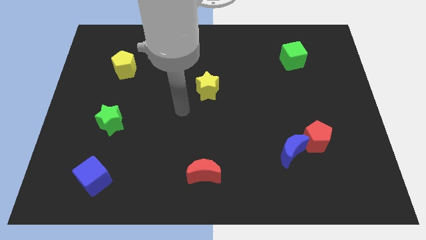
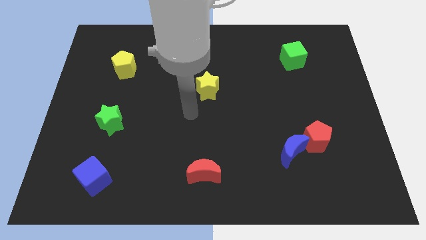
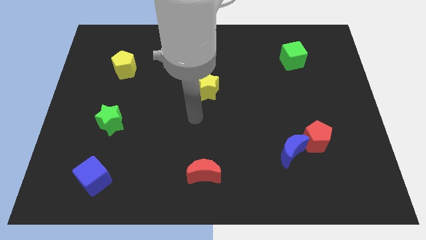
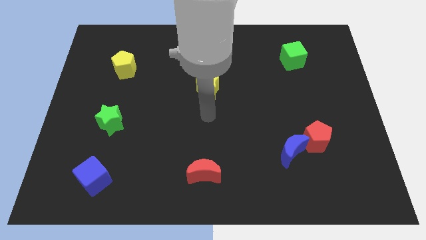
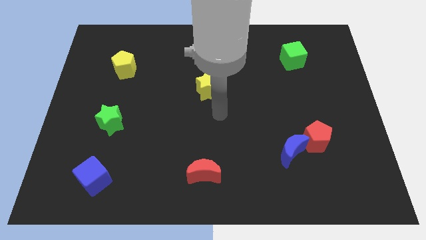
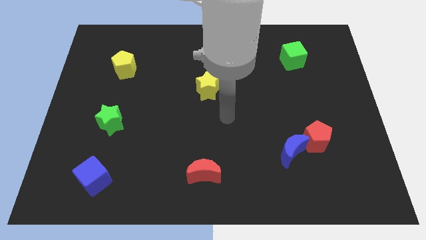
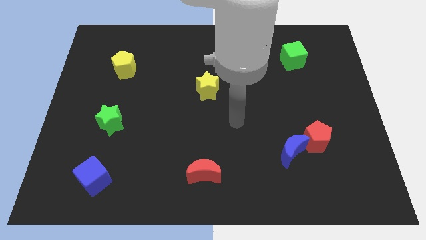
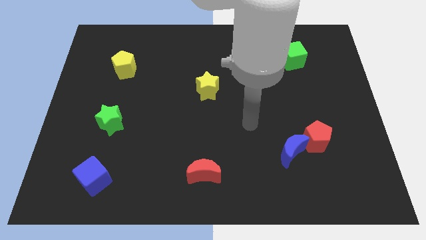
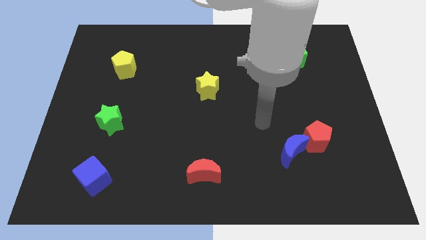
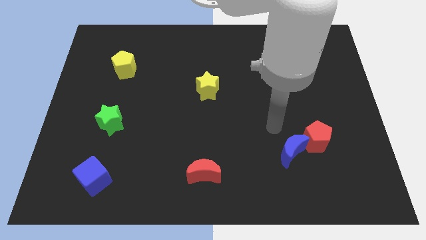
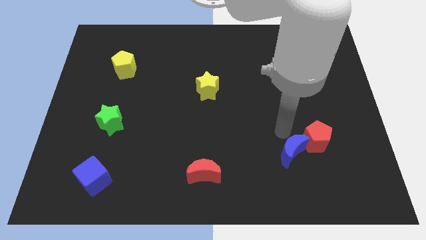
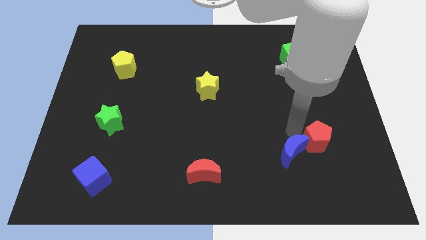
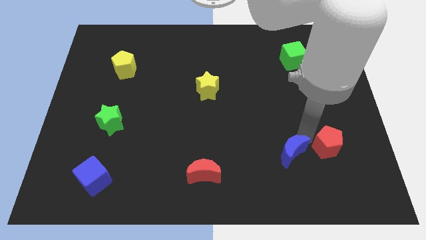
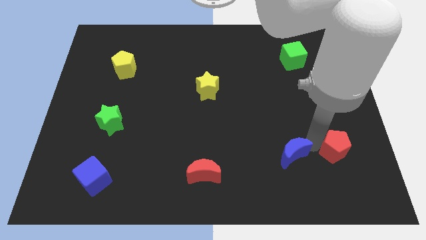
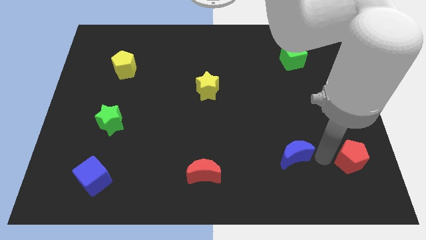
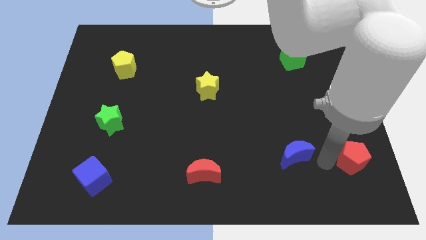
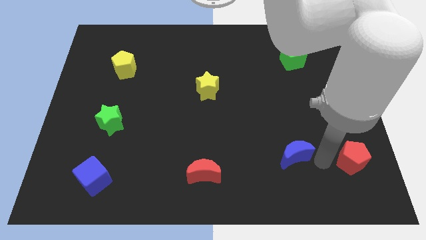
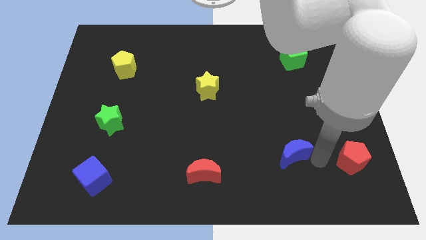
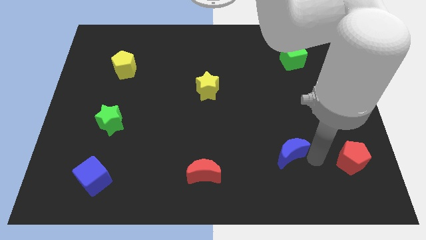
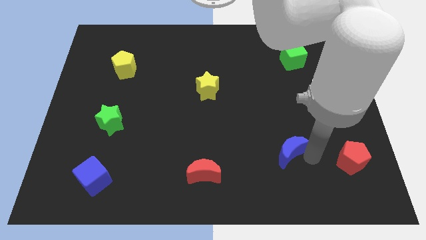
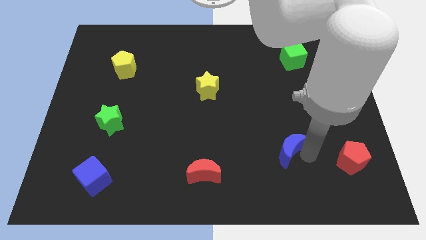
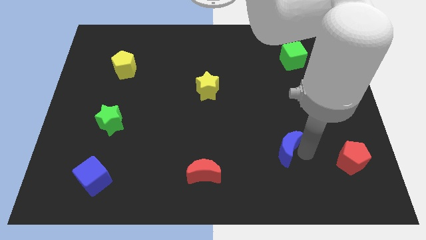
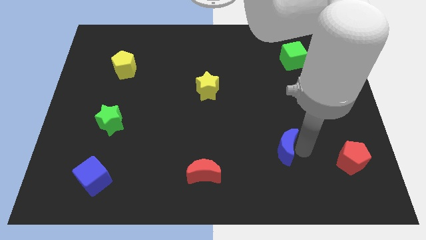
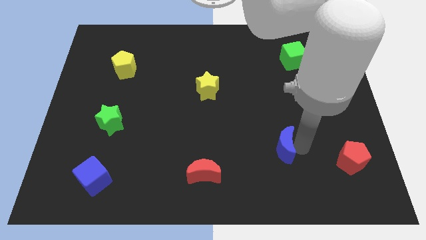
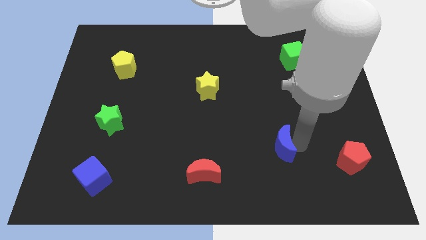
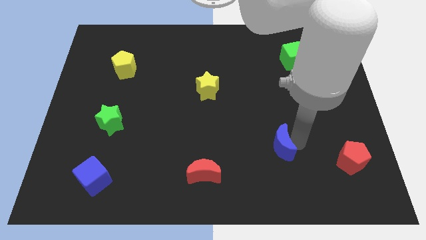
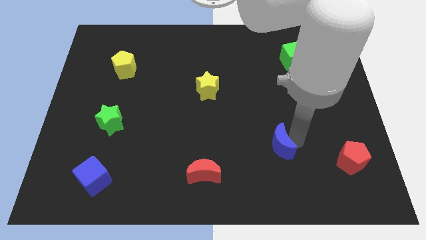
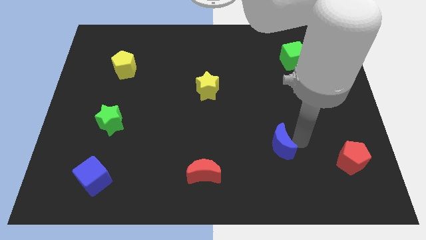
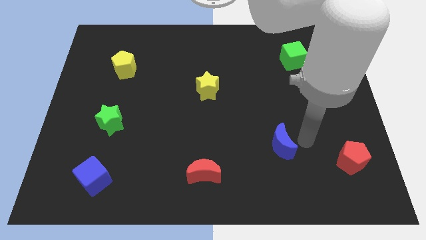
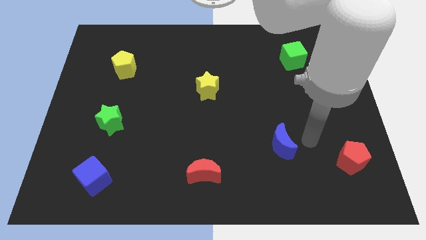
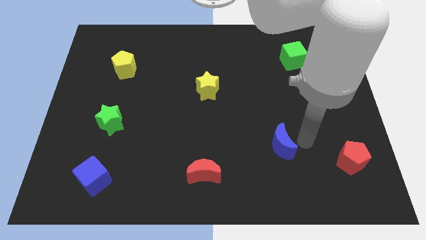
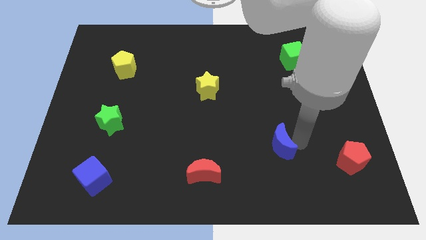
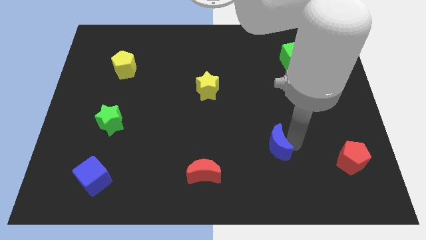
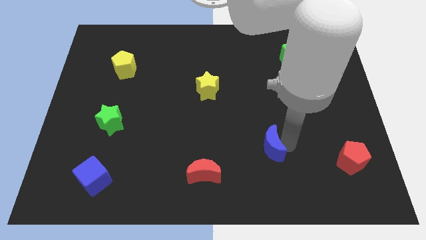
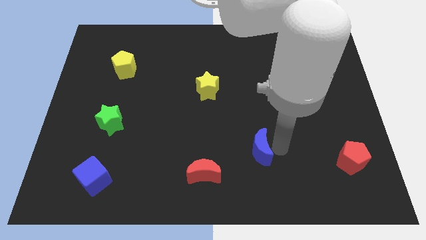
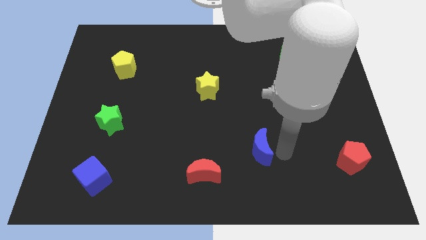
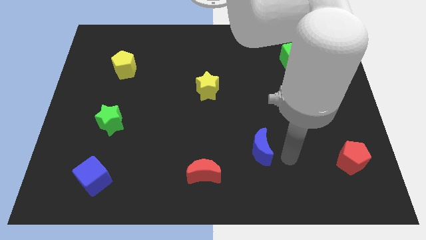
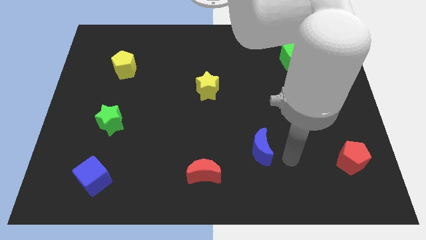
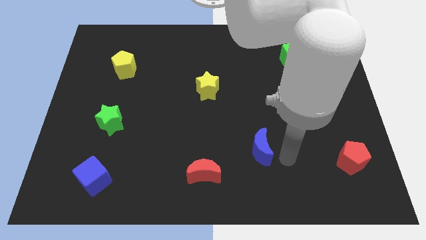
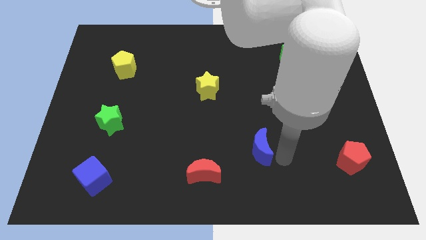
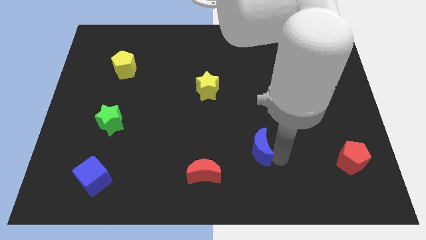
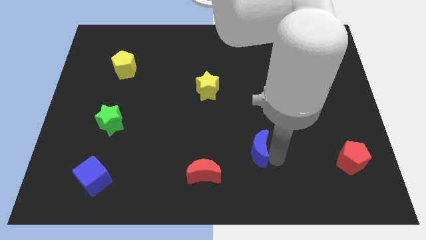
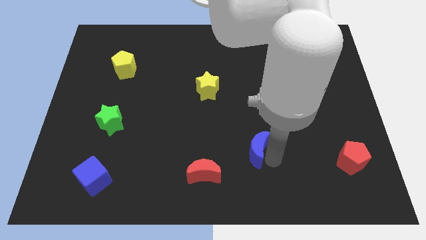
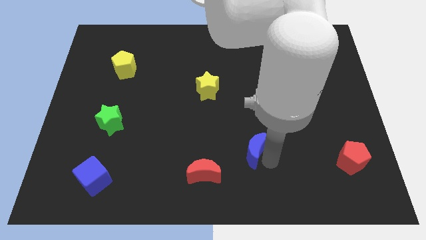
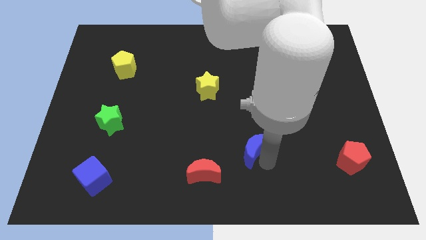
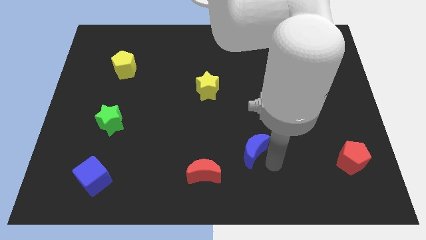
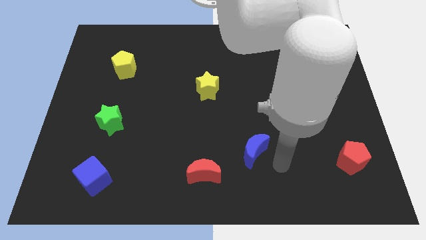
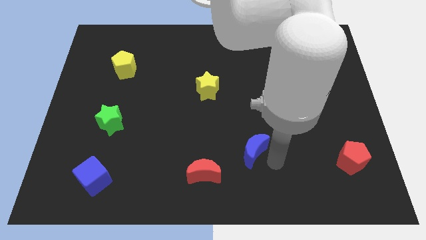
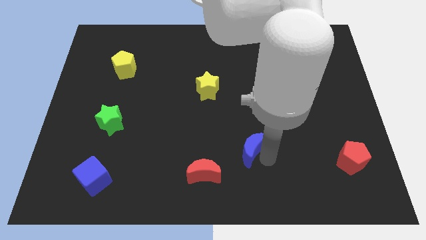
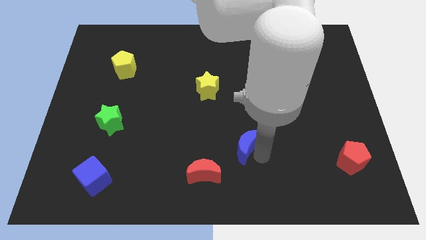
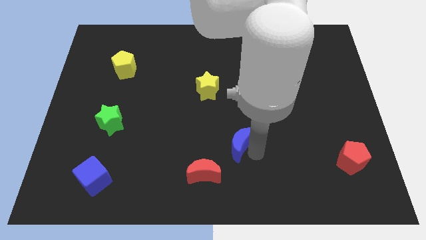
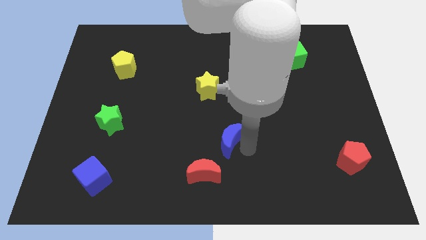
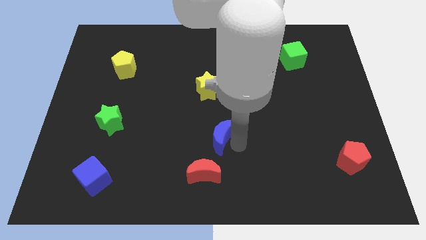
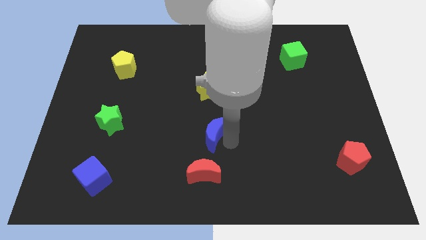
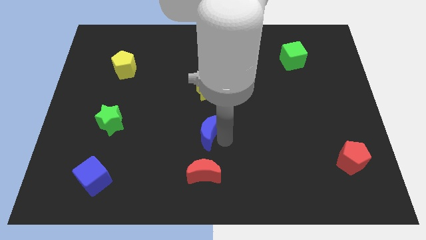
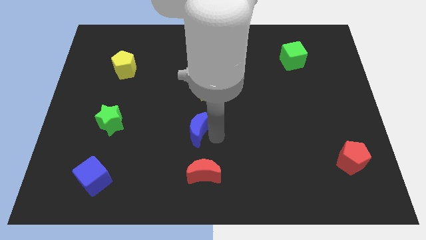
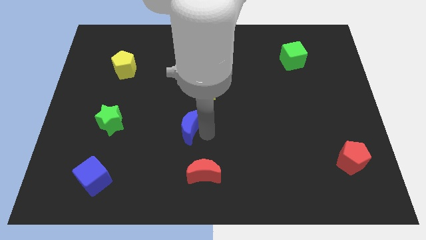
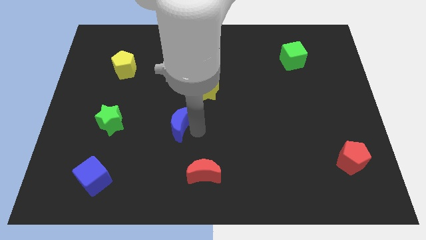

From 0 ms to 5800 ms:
push the blue moon to the right side of the green star

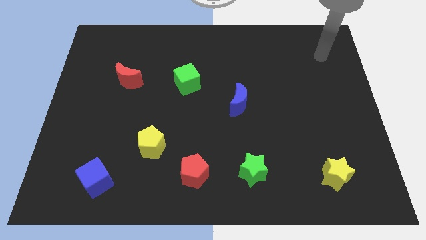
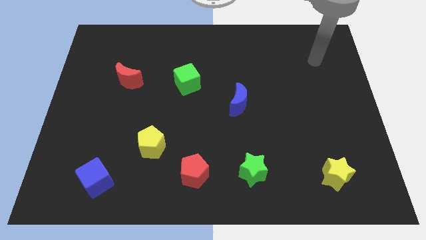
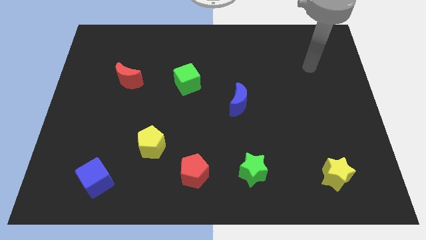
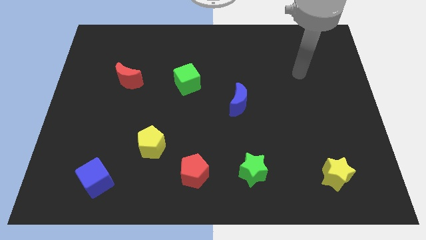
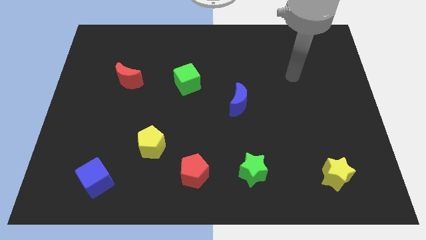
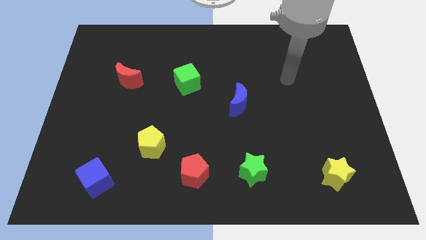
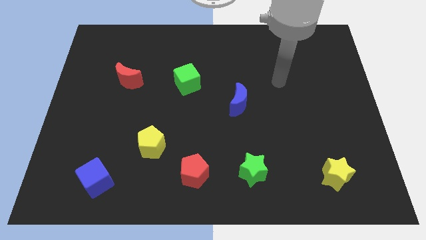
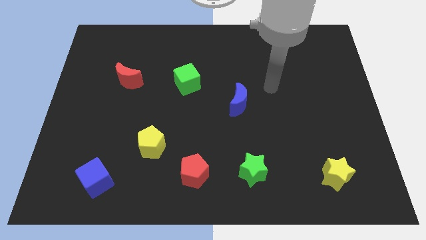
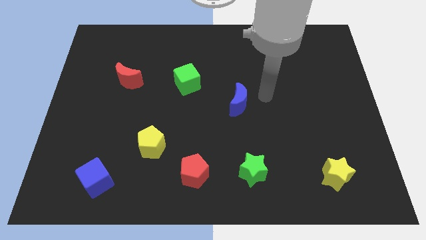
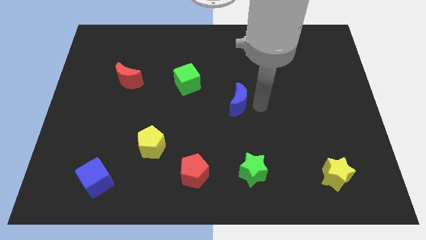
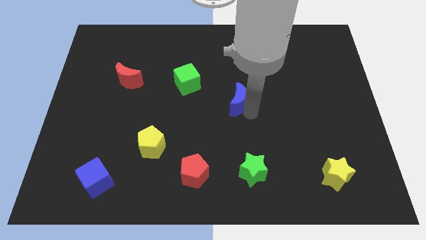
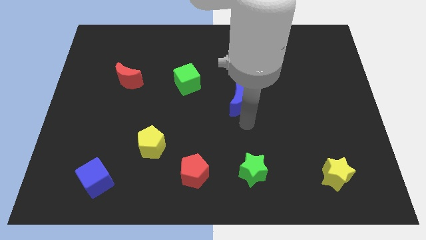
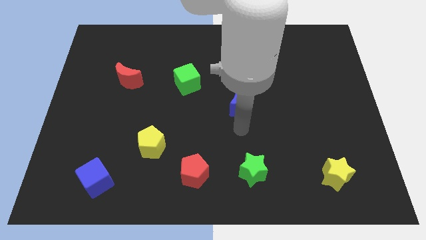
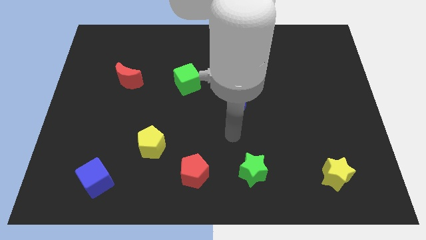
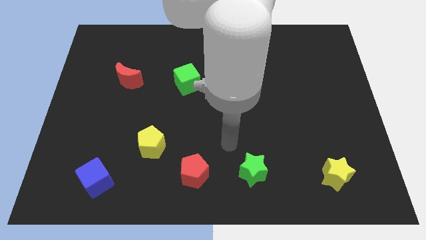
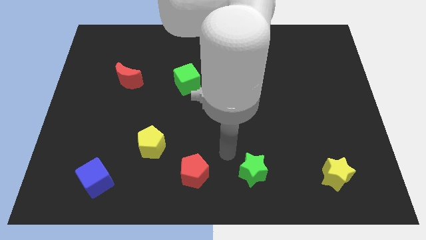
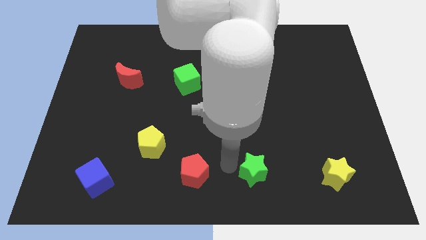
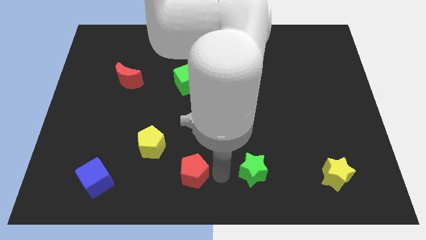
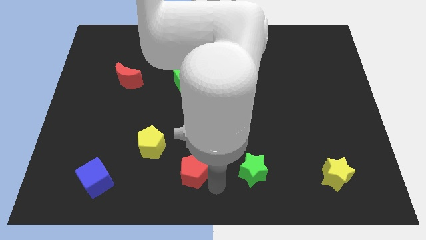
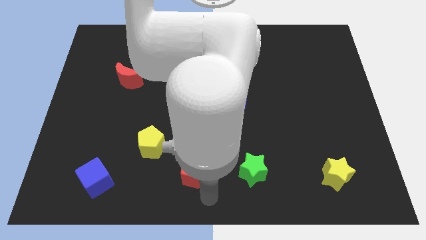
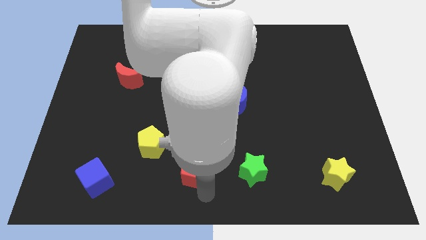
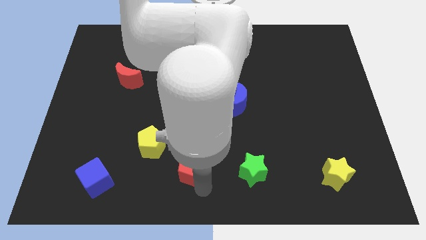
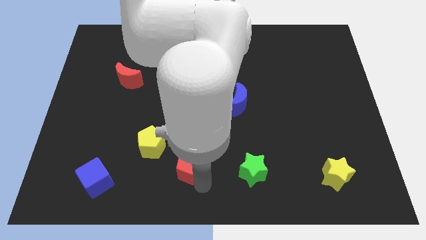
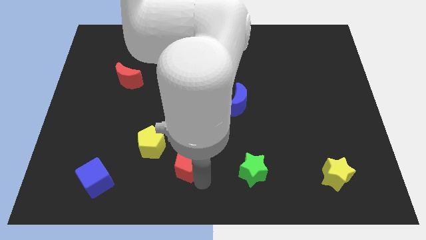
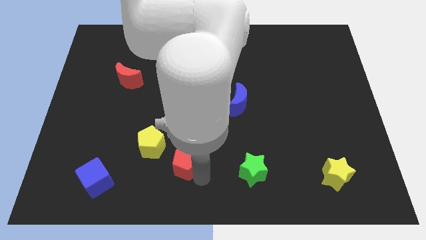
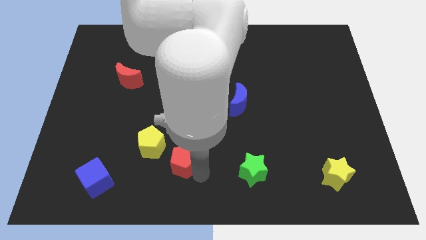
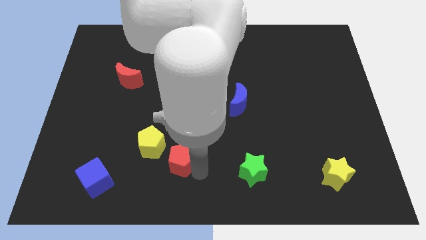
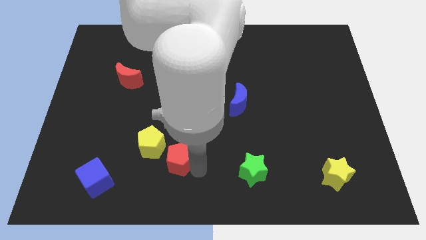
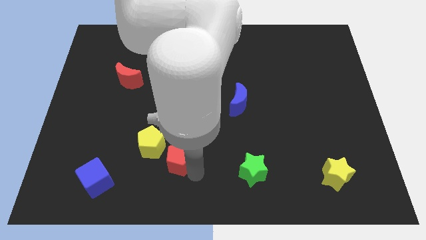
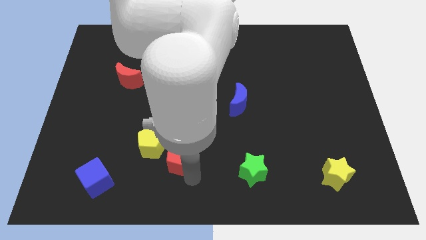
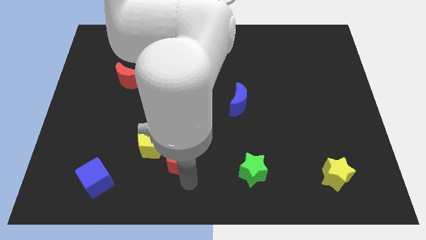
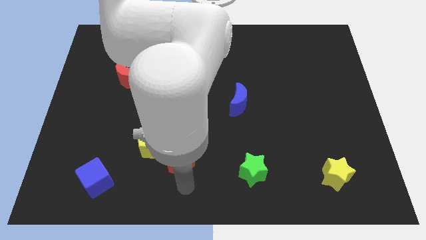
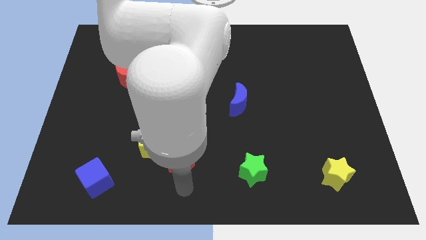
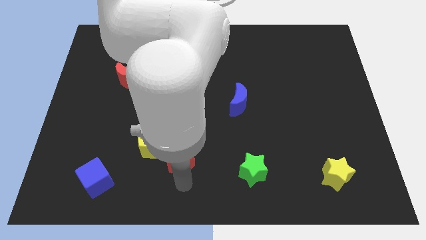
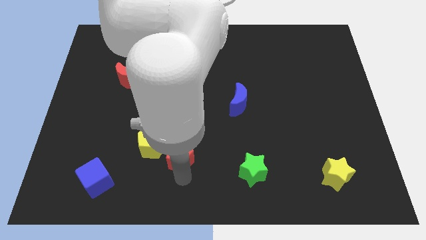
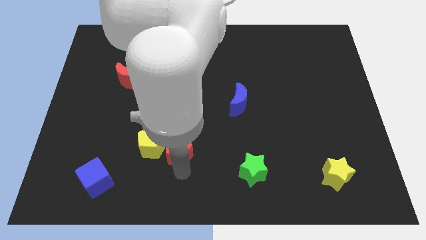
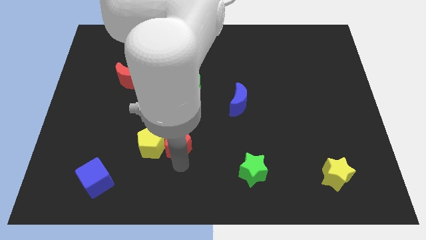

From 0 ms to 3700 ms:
push the red pentagon to the top right of the yellow pentagon
